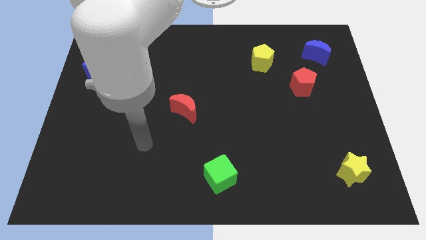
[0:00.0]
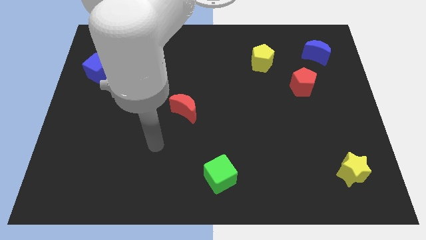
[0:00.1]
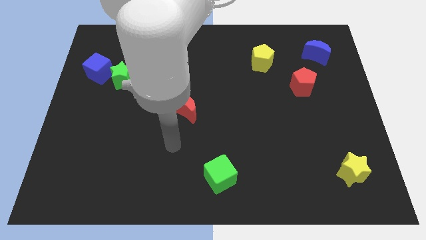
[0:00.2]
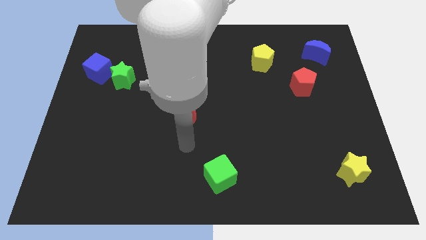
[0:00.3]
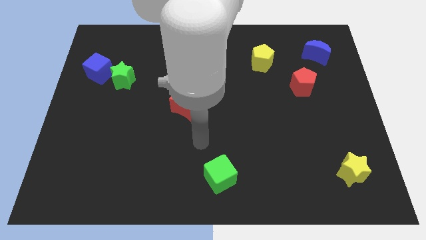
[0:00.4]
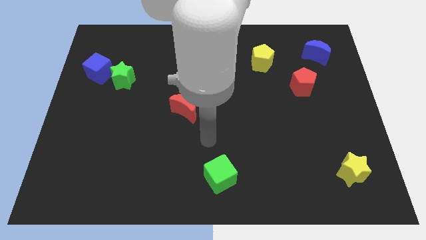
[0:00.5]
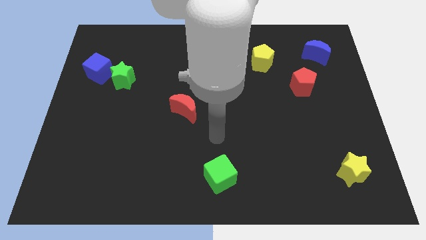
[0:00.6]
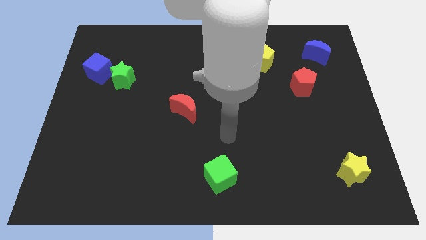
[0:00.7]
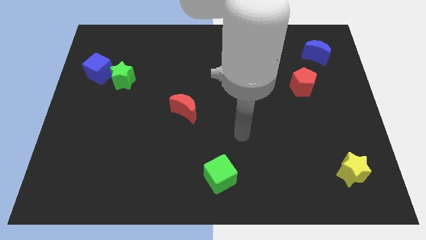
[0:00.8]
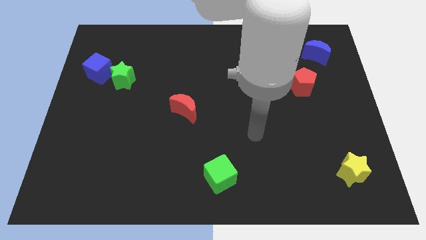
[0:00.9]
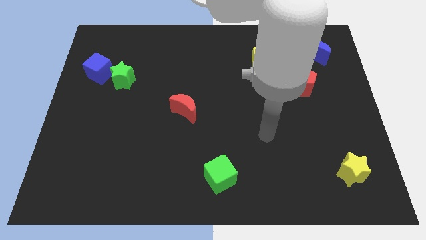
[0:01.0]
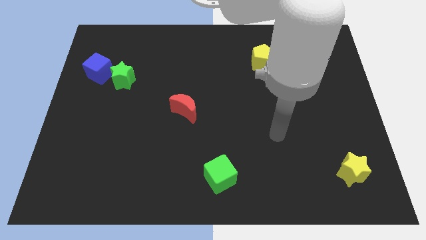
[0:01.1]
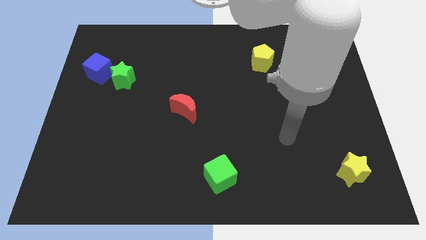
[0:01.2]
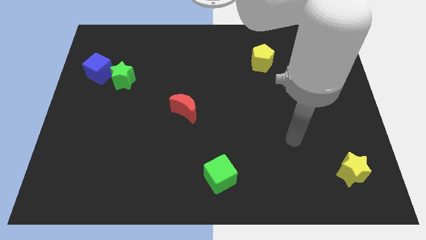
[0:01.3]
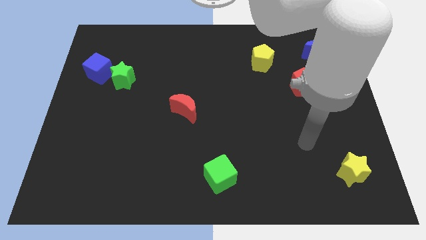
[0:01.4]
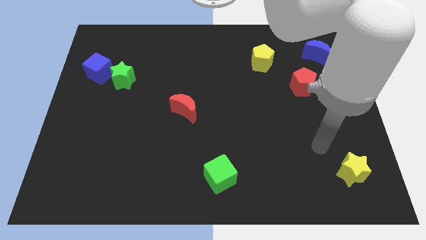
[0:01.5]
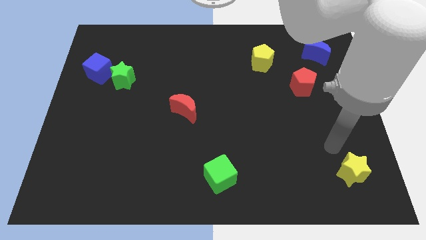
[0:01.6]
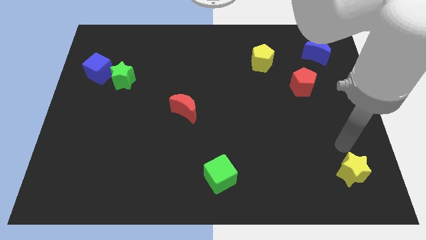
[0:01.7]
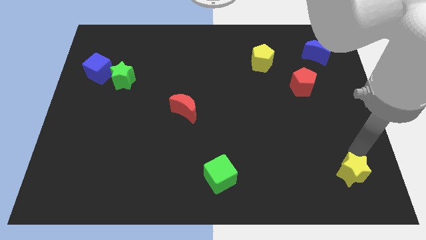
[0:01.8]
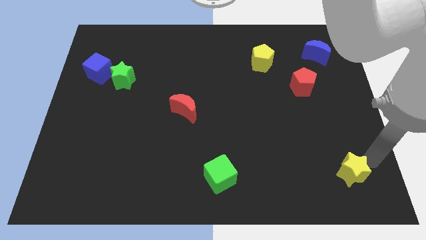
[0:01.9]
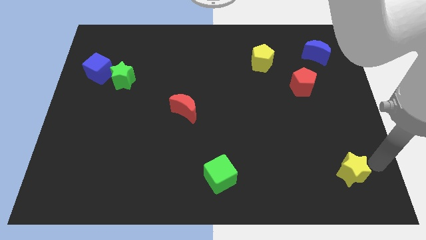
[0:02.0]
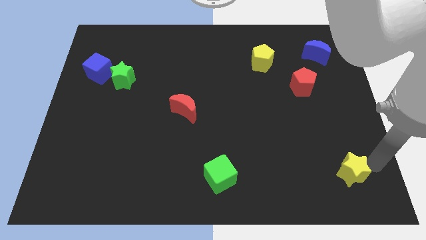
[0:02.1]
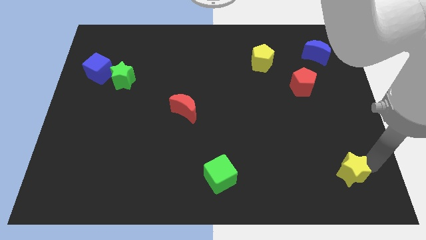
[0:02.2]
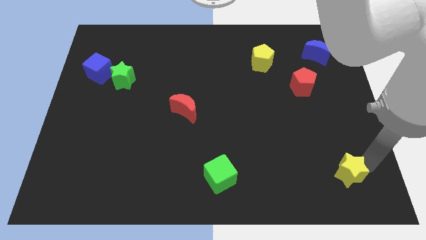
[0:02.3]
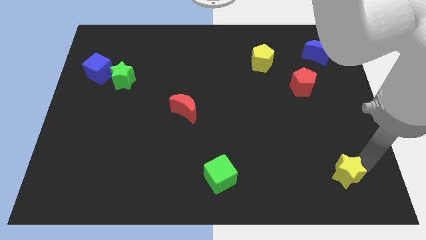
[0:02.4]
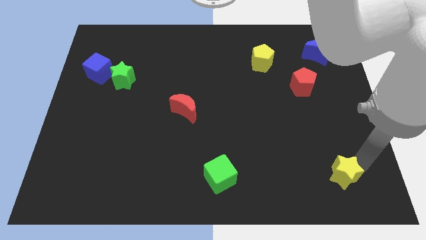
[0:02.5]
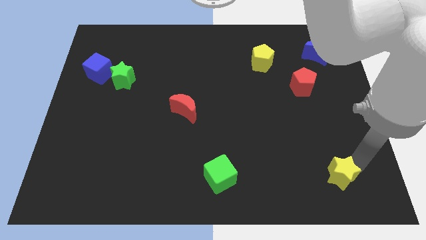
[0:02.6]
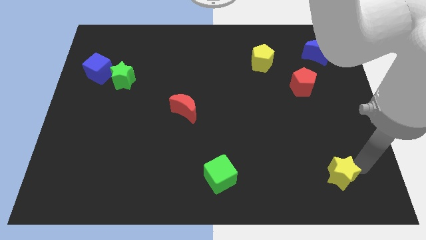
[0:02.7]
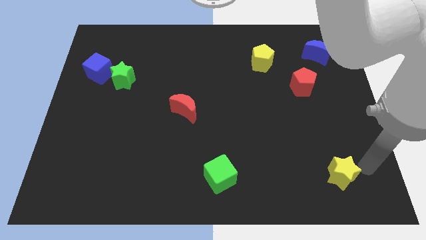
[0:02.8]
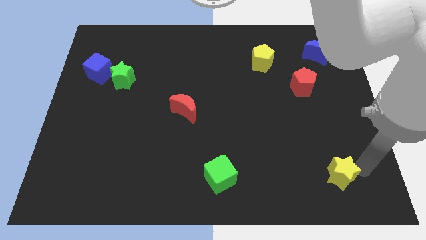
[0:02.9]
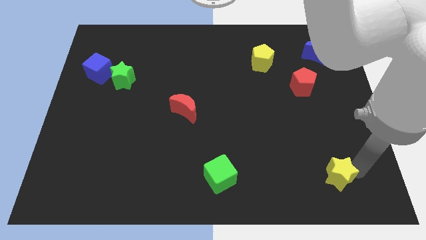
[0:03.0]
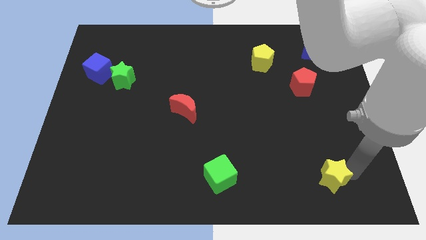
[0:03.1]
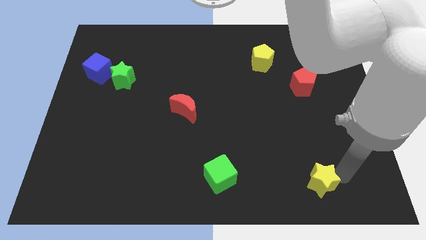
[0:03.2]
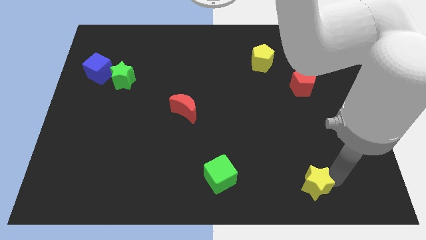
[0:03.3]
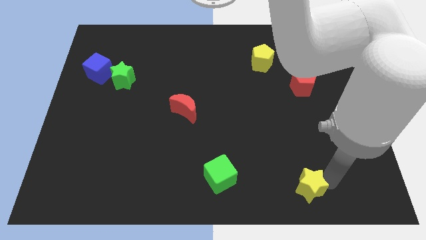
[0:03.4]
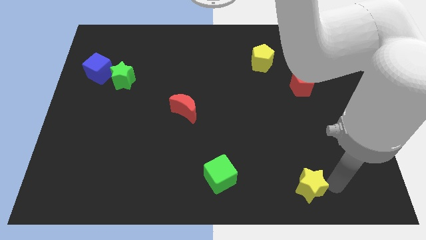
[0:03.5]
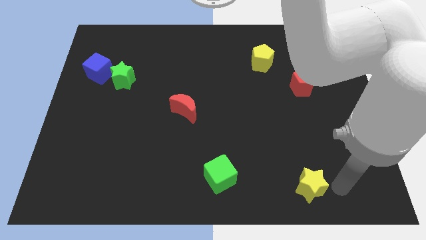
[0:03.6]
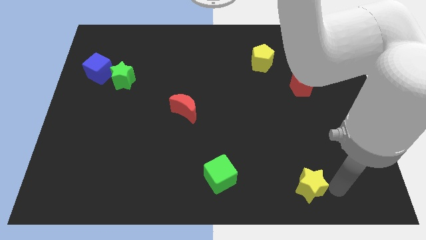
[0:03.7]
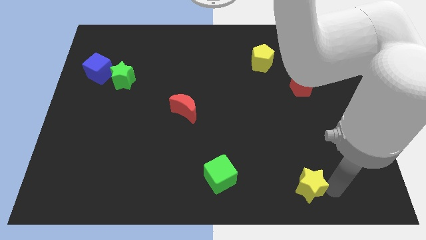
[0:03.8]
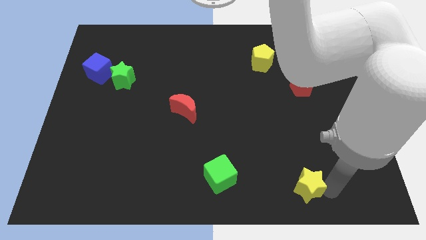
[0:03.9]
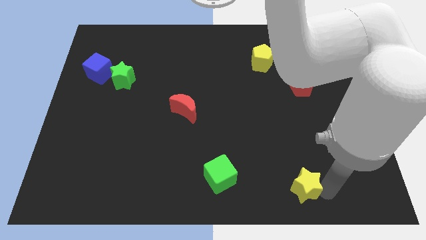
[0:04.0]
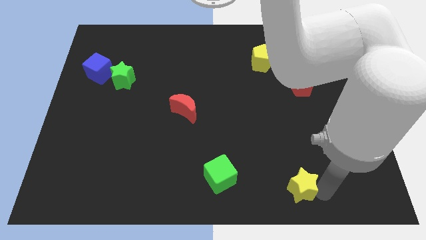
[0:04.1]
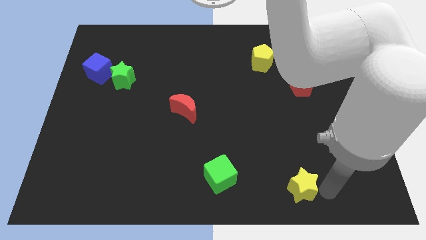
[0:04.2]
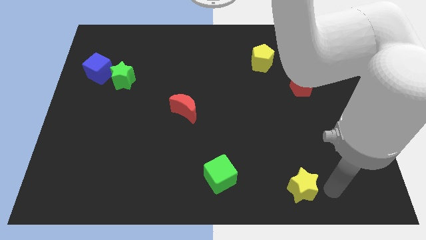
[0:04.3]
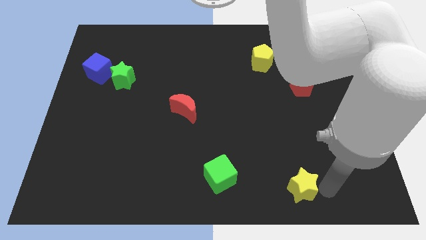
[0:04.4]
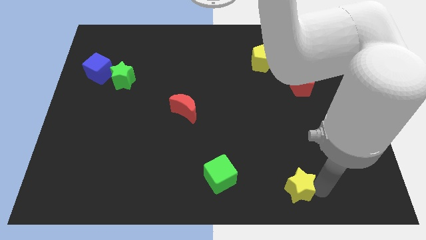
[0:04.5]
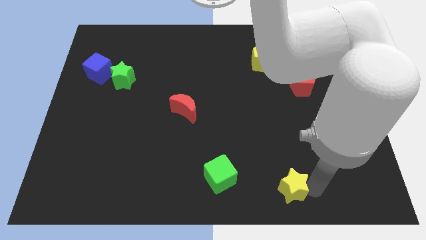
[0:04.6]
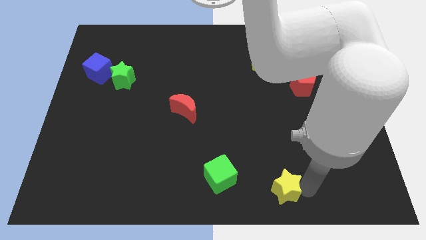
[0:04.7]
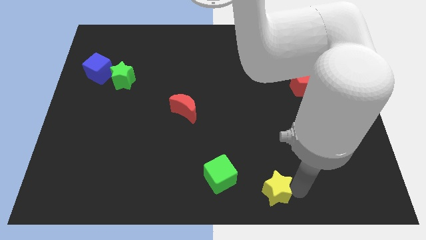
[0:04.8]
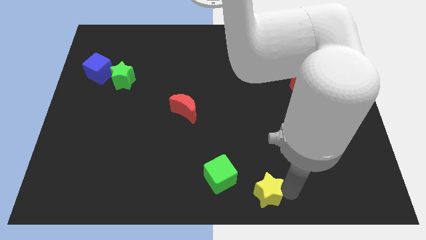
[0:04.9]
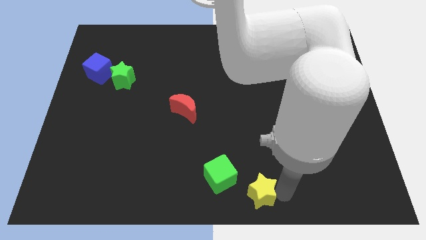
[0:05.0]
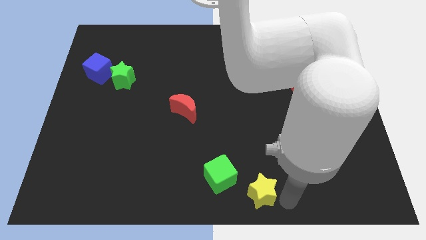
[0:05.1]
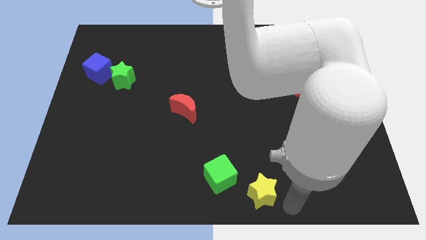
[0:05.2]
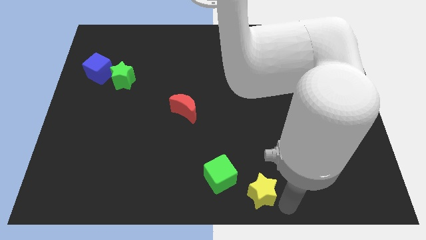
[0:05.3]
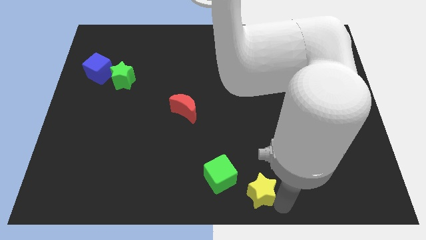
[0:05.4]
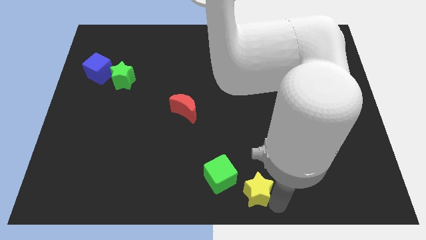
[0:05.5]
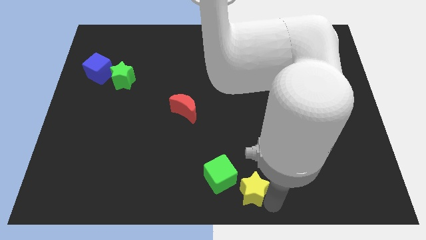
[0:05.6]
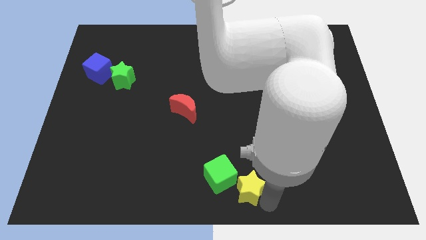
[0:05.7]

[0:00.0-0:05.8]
put the yellow star towards the green cube

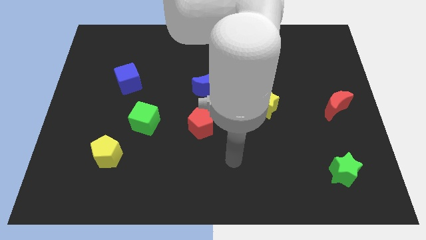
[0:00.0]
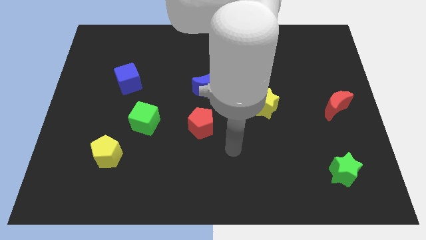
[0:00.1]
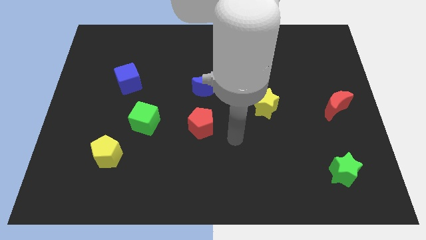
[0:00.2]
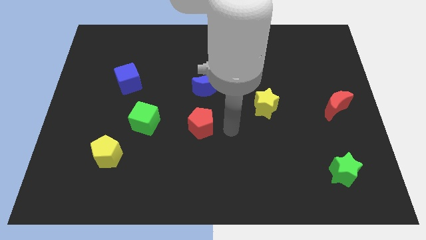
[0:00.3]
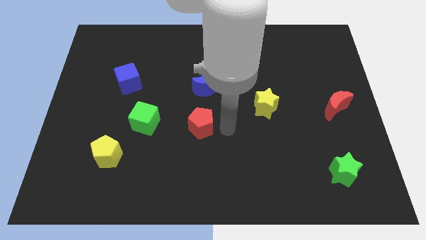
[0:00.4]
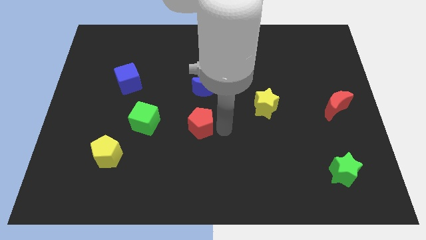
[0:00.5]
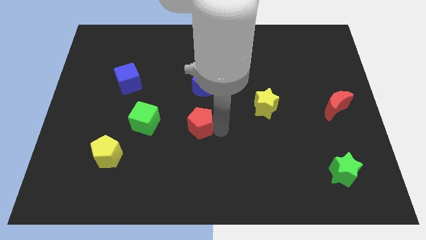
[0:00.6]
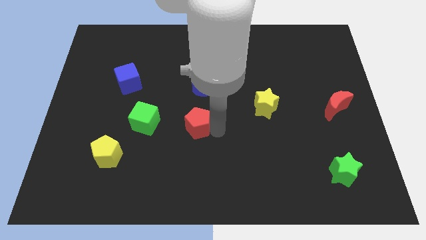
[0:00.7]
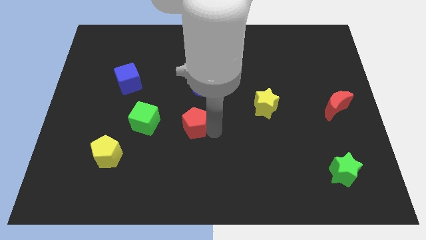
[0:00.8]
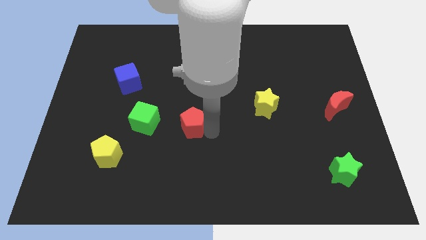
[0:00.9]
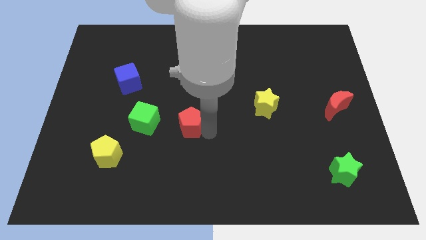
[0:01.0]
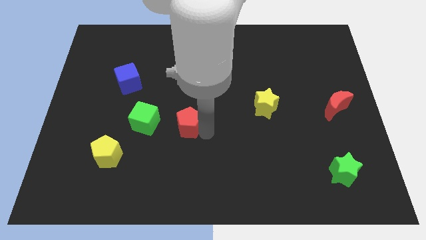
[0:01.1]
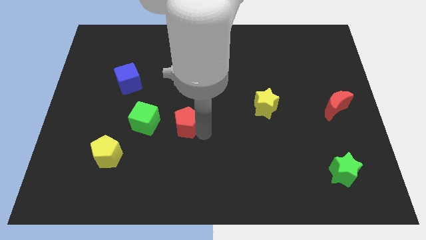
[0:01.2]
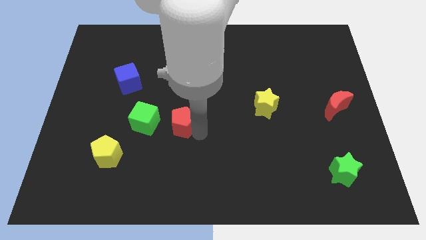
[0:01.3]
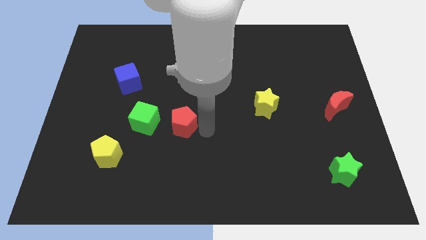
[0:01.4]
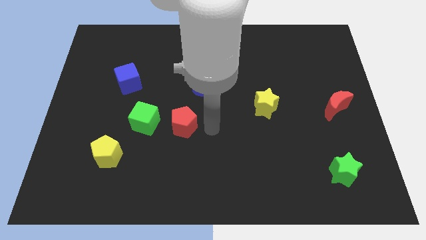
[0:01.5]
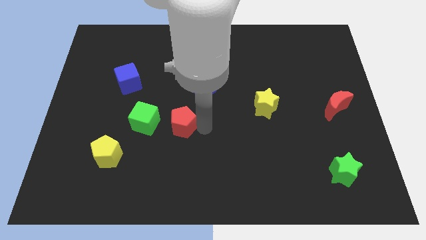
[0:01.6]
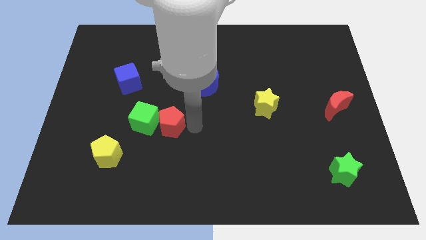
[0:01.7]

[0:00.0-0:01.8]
push the red pentagon towards the green cube
